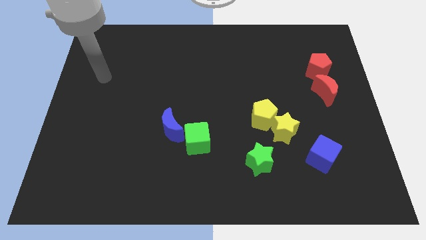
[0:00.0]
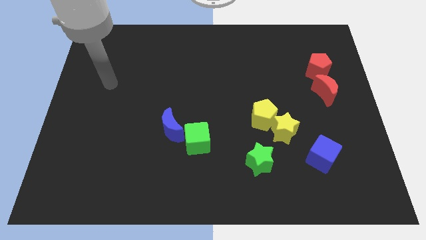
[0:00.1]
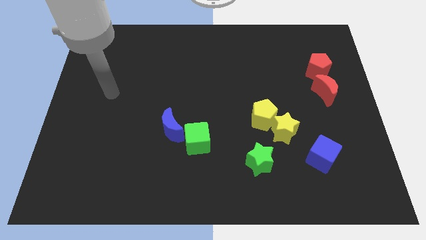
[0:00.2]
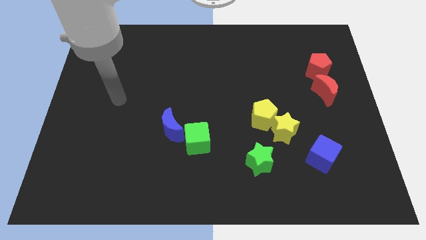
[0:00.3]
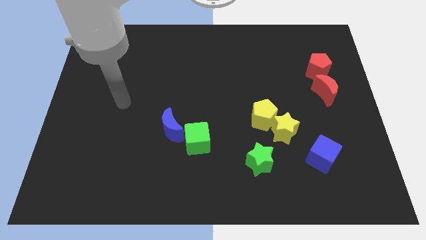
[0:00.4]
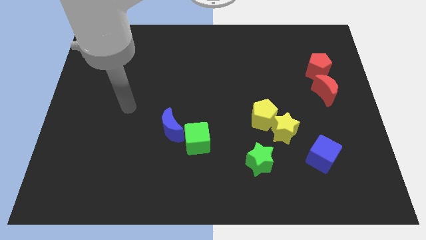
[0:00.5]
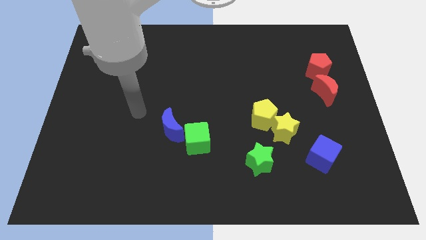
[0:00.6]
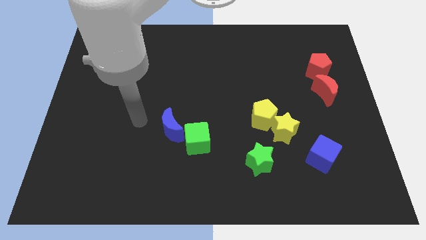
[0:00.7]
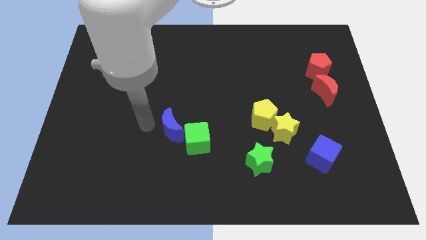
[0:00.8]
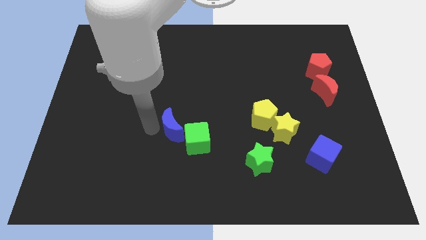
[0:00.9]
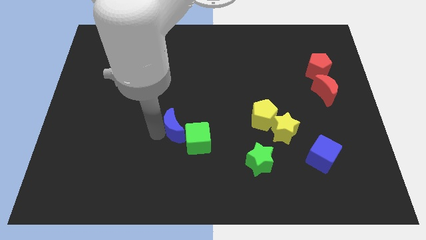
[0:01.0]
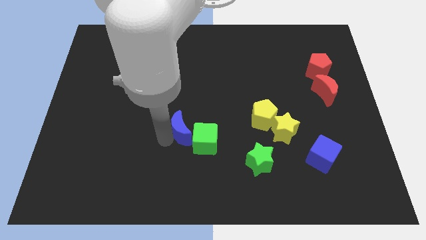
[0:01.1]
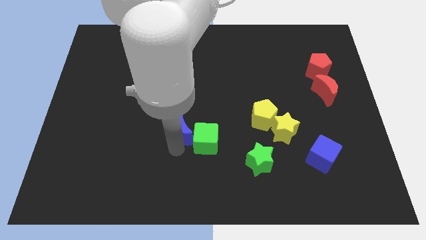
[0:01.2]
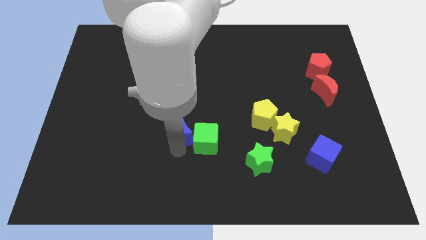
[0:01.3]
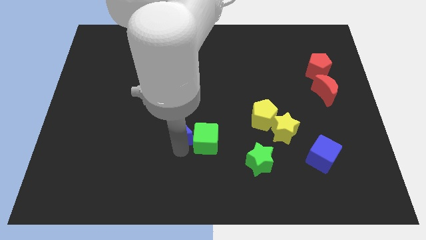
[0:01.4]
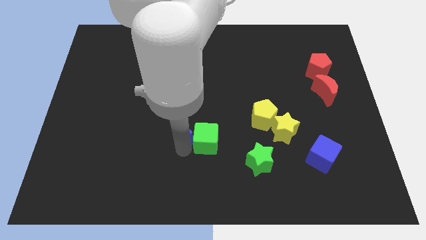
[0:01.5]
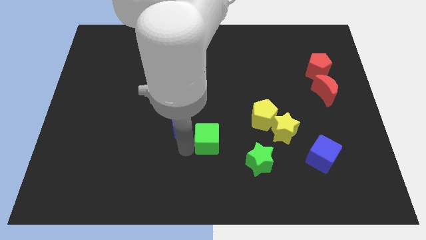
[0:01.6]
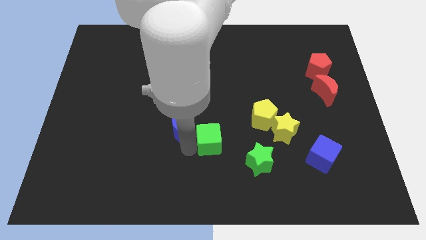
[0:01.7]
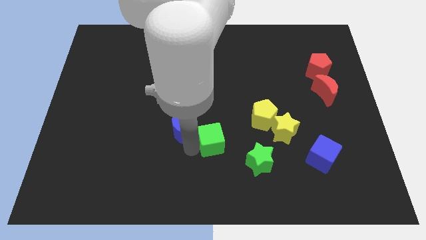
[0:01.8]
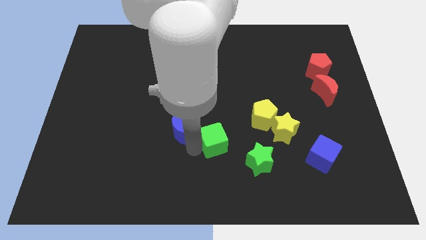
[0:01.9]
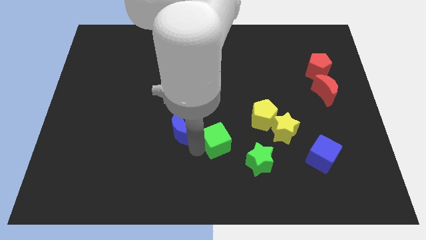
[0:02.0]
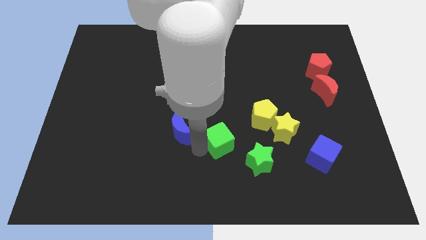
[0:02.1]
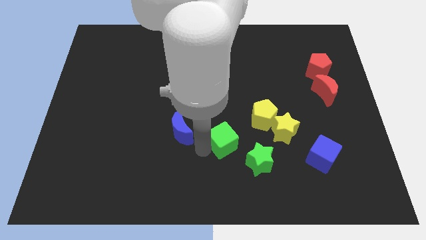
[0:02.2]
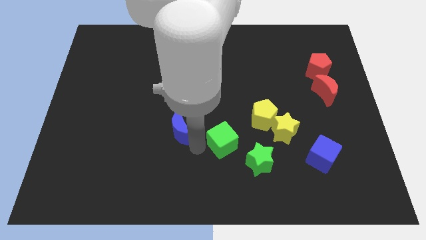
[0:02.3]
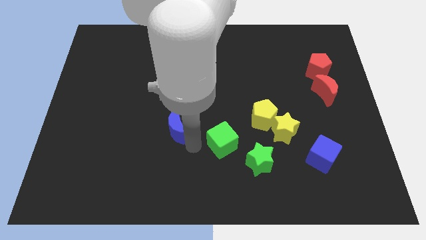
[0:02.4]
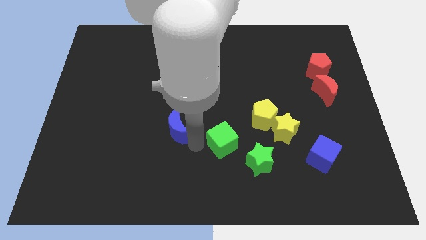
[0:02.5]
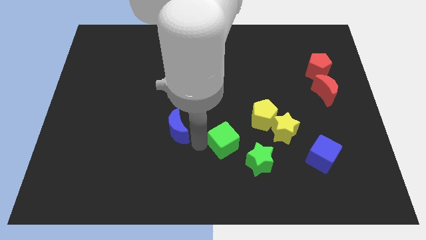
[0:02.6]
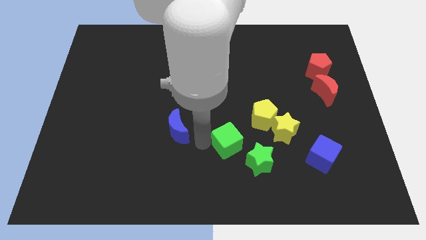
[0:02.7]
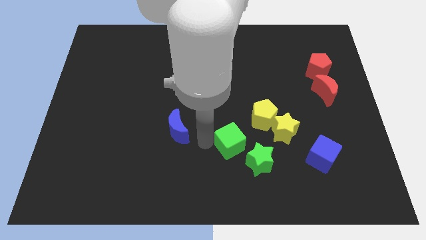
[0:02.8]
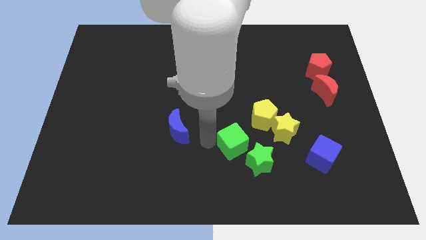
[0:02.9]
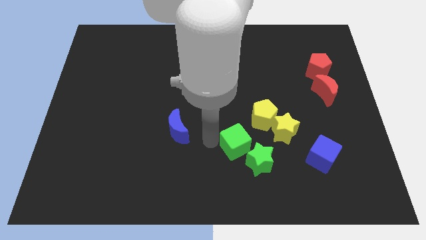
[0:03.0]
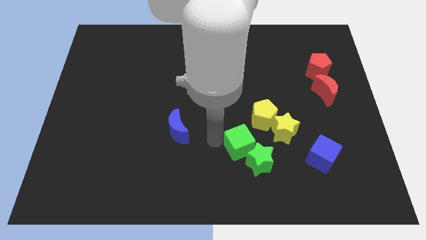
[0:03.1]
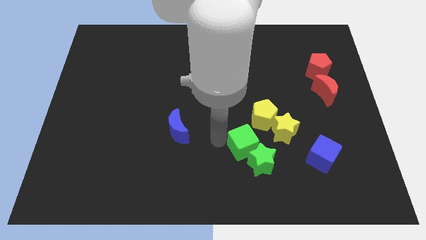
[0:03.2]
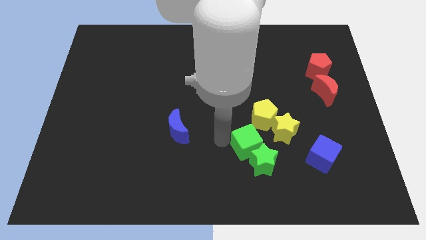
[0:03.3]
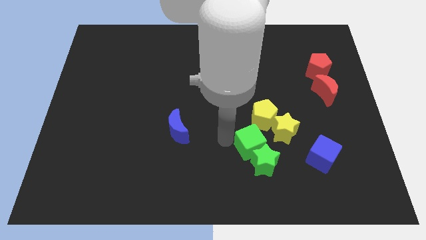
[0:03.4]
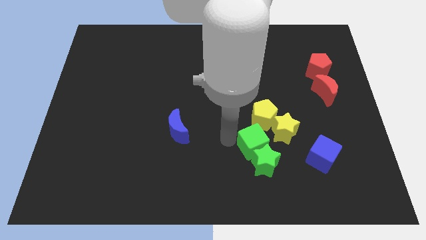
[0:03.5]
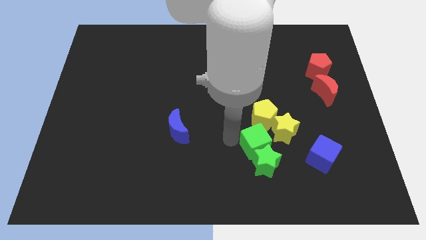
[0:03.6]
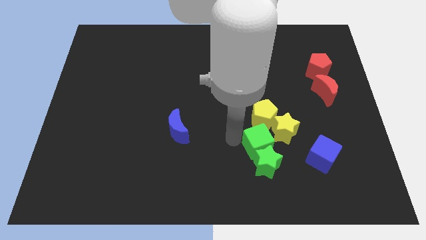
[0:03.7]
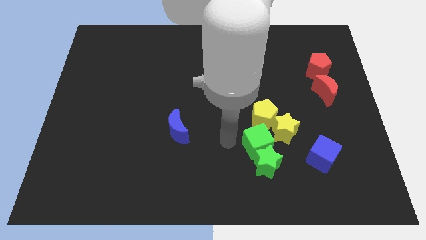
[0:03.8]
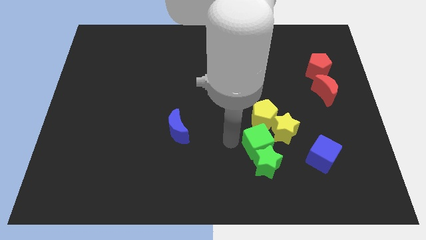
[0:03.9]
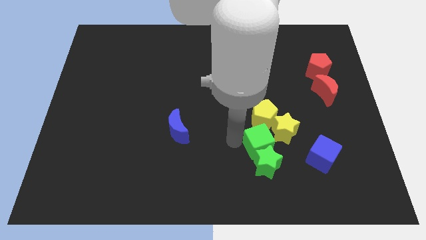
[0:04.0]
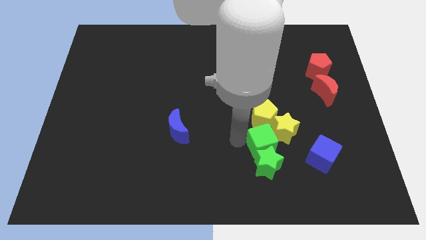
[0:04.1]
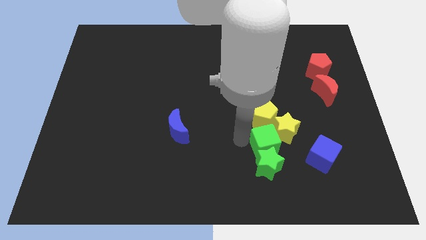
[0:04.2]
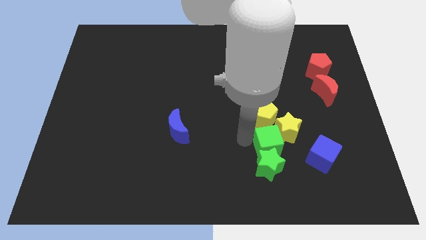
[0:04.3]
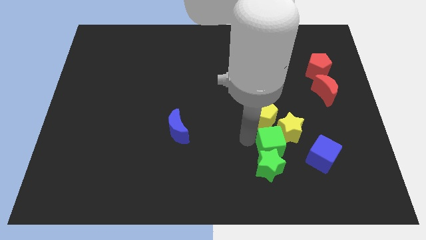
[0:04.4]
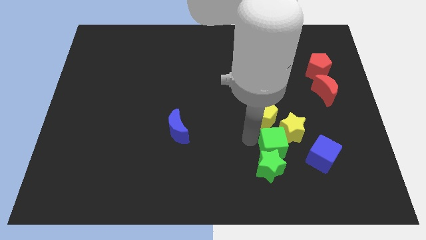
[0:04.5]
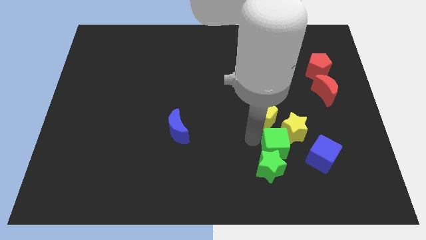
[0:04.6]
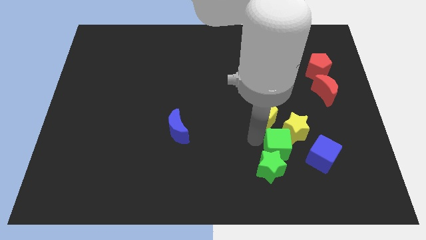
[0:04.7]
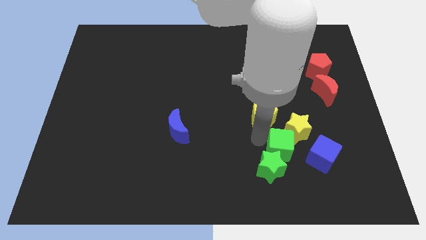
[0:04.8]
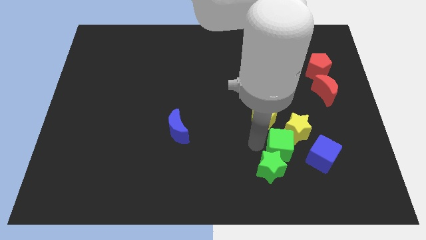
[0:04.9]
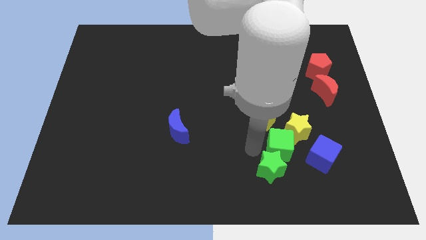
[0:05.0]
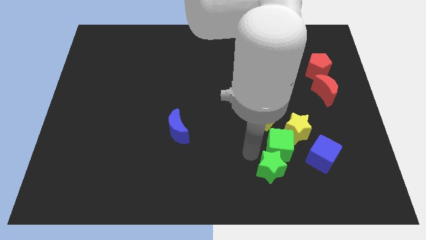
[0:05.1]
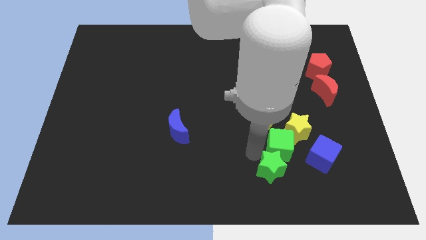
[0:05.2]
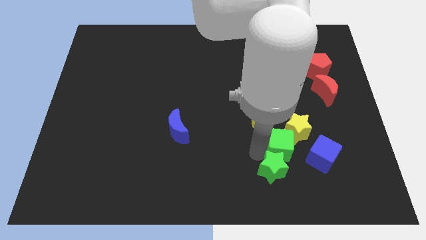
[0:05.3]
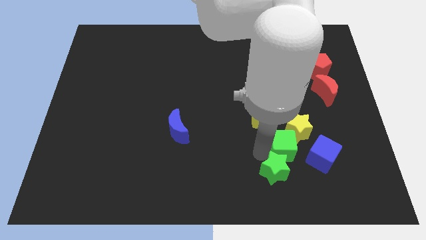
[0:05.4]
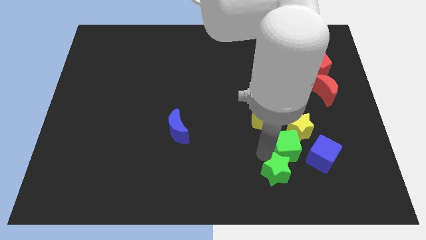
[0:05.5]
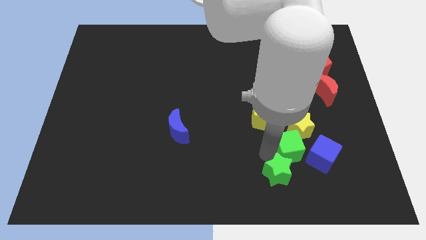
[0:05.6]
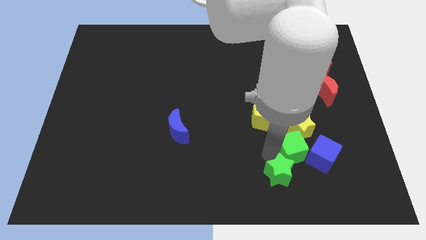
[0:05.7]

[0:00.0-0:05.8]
push the green cube to the right

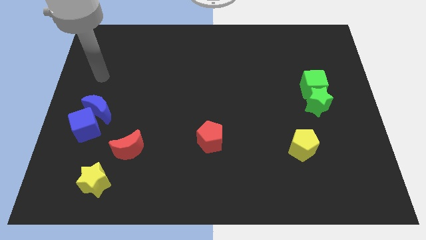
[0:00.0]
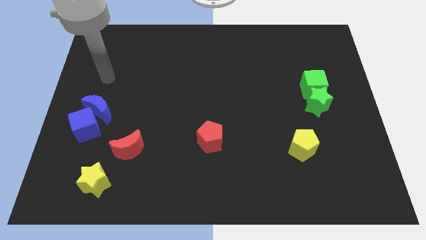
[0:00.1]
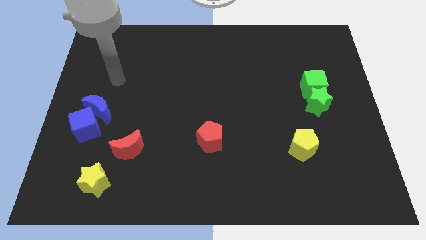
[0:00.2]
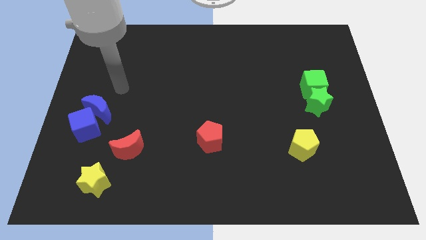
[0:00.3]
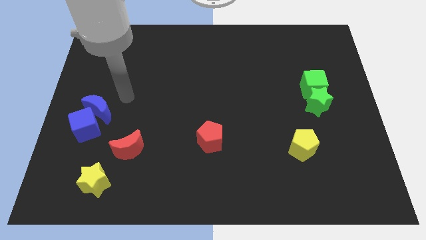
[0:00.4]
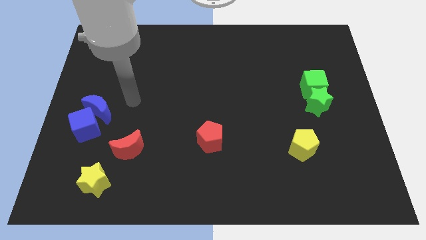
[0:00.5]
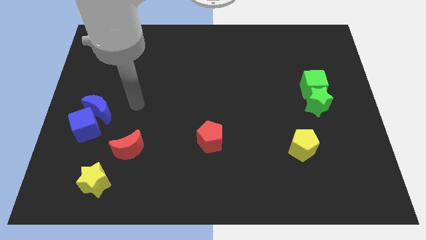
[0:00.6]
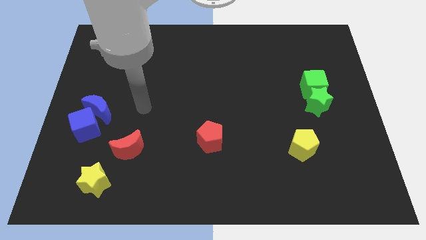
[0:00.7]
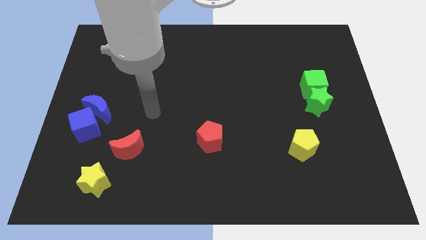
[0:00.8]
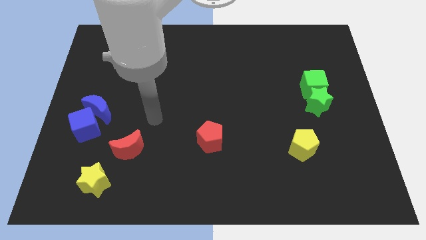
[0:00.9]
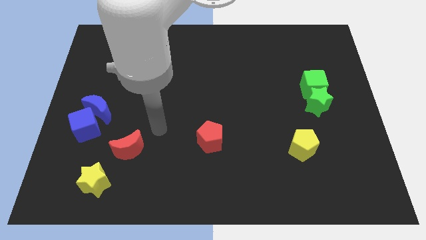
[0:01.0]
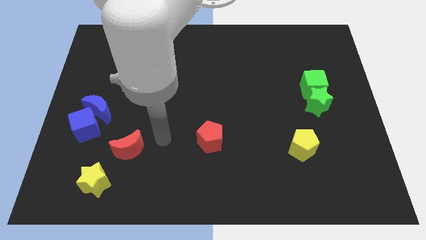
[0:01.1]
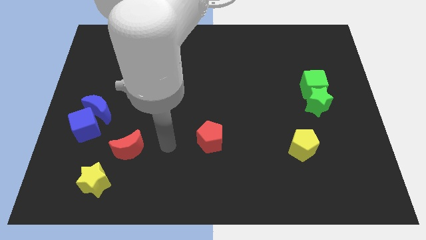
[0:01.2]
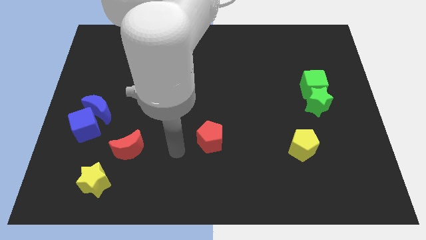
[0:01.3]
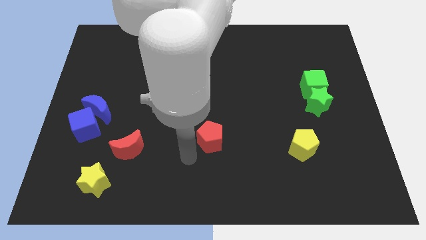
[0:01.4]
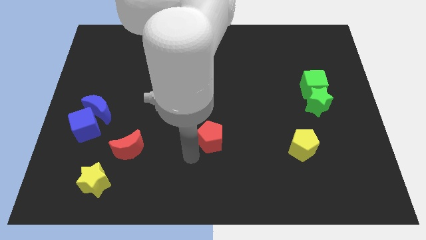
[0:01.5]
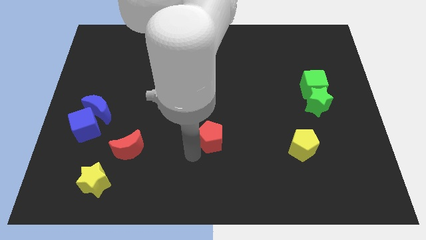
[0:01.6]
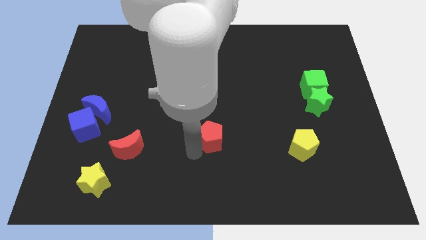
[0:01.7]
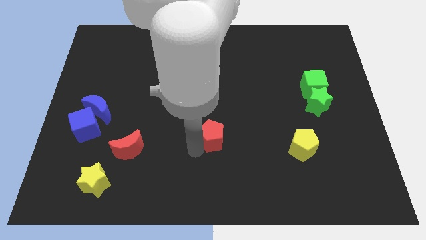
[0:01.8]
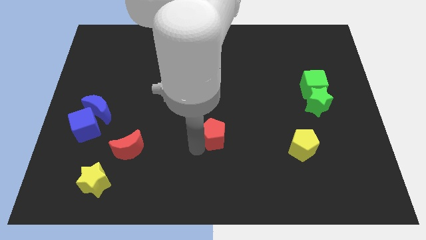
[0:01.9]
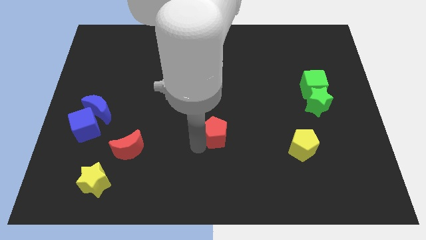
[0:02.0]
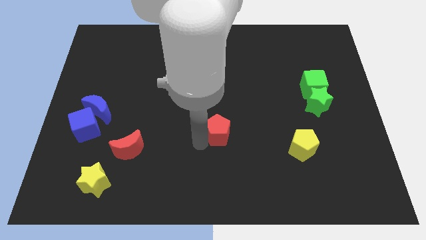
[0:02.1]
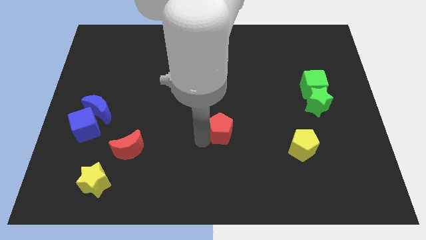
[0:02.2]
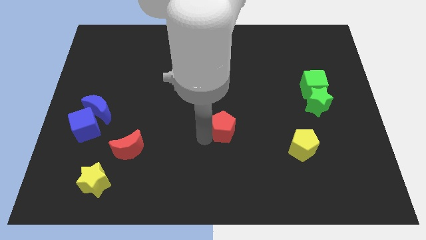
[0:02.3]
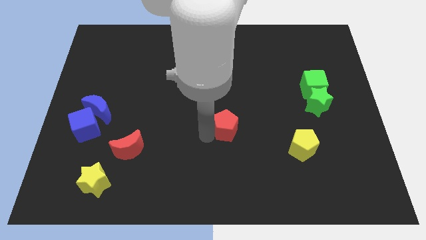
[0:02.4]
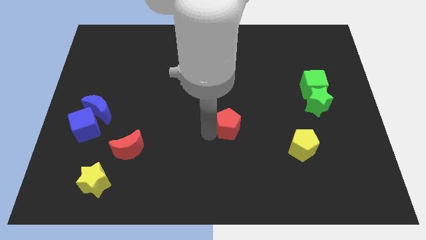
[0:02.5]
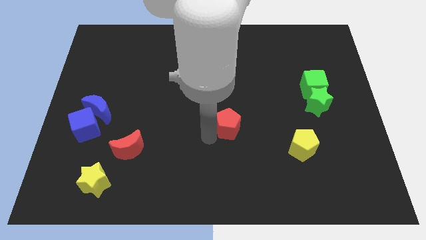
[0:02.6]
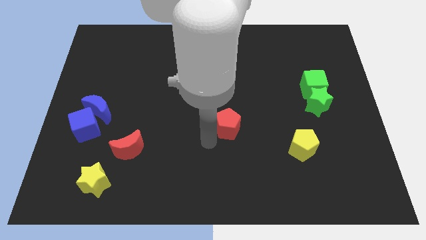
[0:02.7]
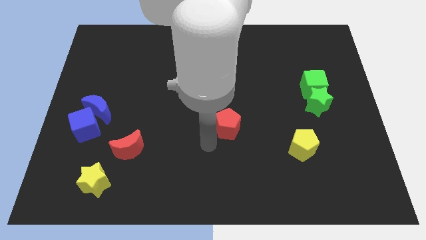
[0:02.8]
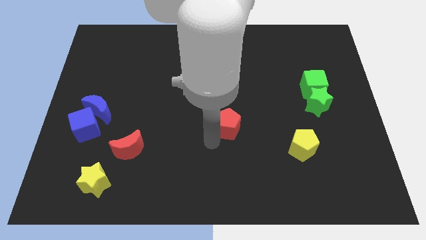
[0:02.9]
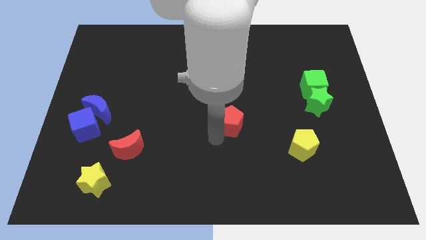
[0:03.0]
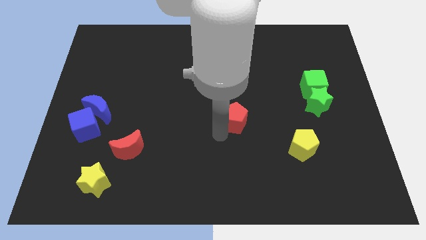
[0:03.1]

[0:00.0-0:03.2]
slightly push the red pentagon diagonally up and right
